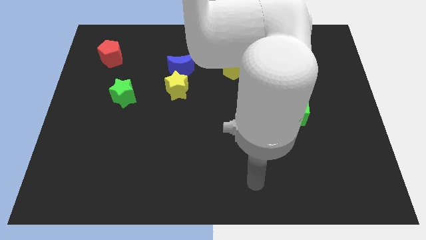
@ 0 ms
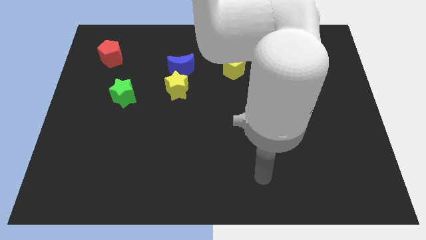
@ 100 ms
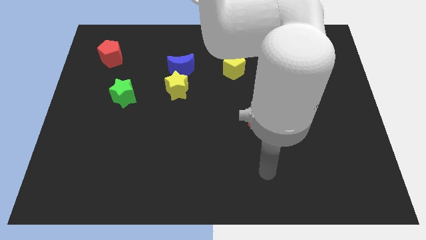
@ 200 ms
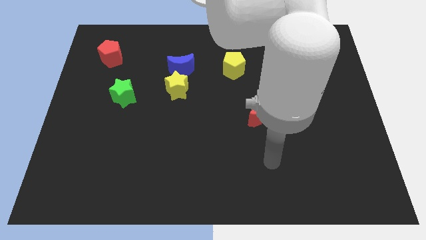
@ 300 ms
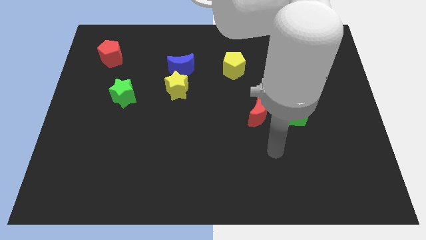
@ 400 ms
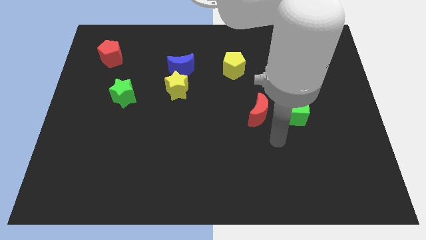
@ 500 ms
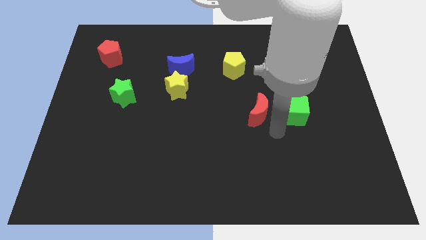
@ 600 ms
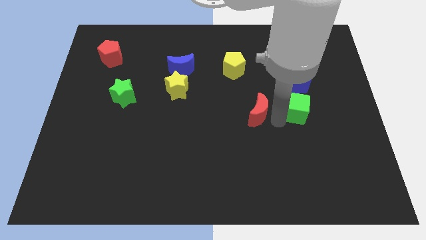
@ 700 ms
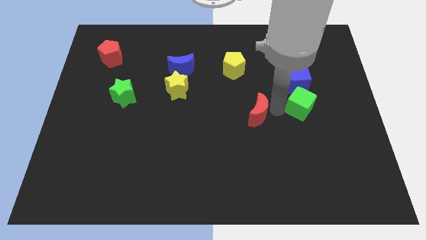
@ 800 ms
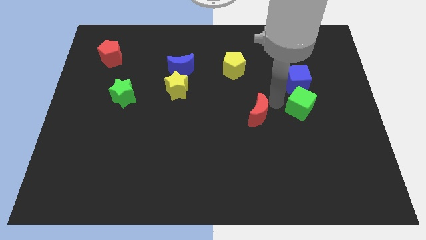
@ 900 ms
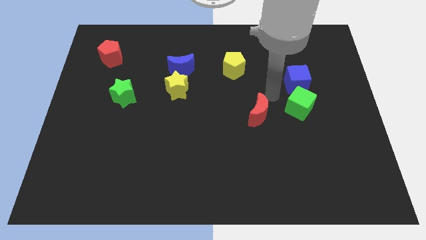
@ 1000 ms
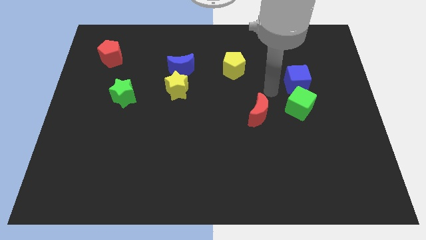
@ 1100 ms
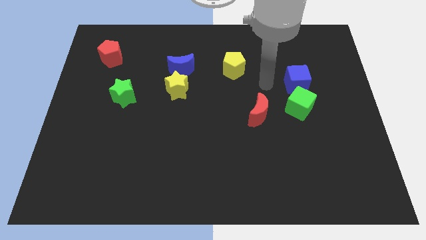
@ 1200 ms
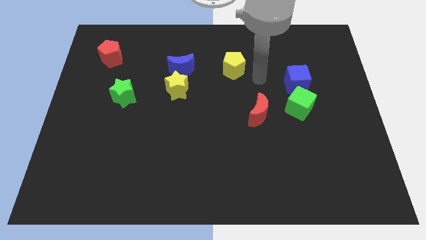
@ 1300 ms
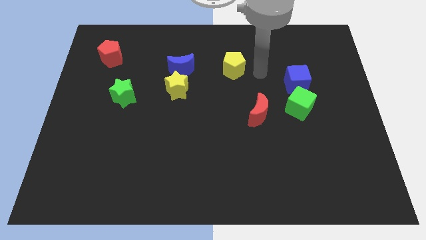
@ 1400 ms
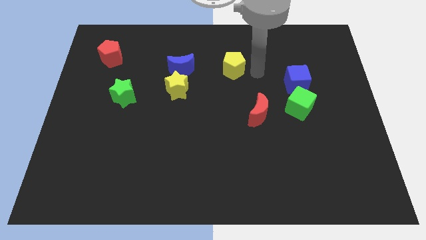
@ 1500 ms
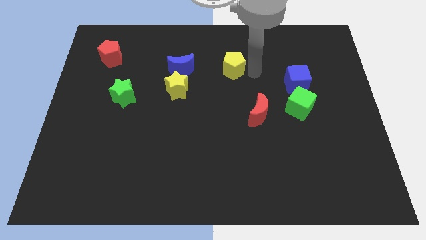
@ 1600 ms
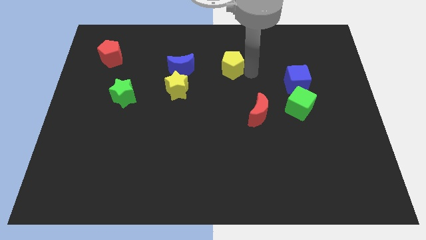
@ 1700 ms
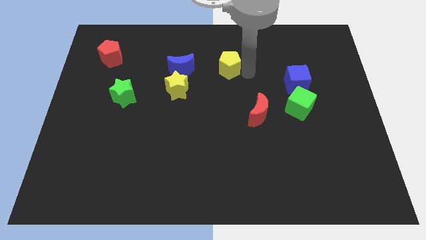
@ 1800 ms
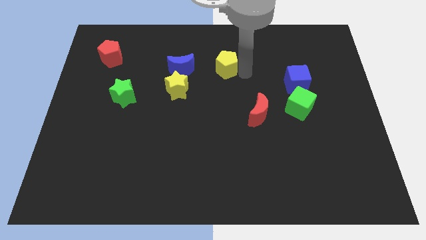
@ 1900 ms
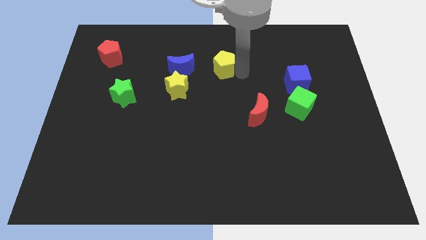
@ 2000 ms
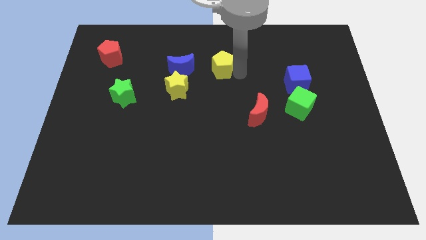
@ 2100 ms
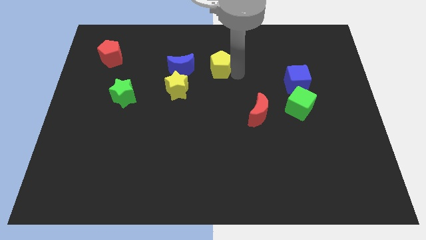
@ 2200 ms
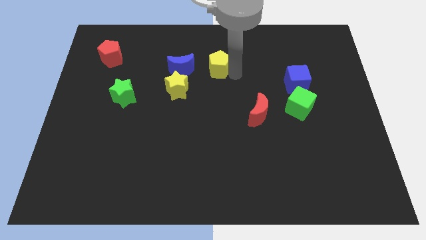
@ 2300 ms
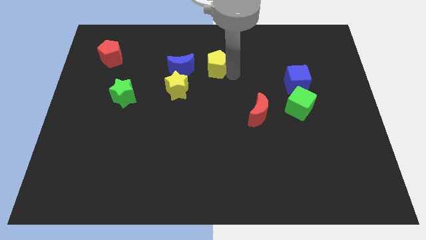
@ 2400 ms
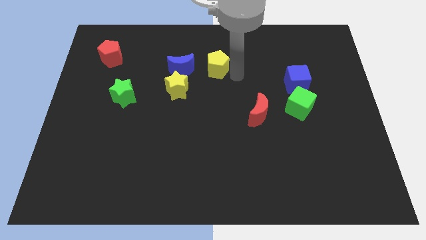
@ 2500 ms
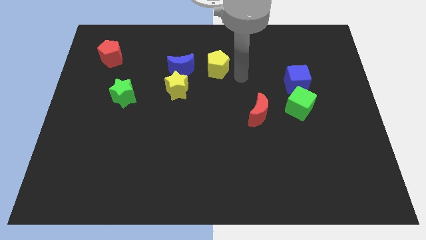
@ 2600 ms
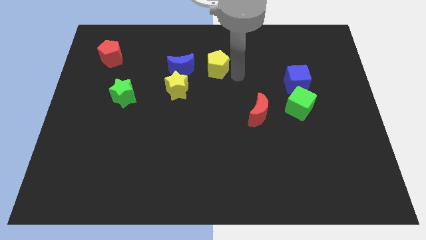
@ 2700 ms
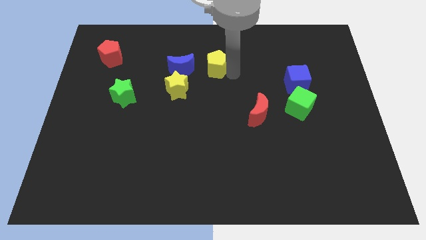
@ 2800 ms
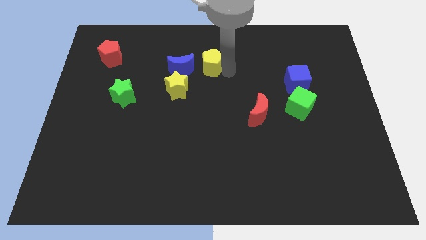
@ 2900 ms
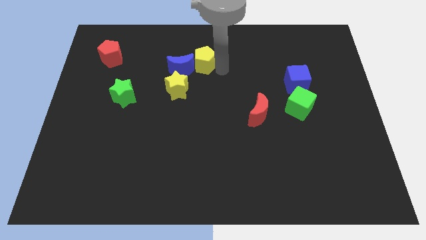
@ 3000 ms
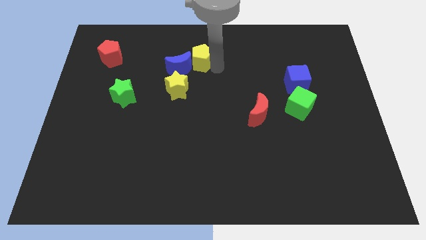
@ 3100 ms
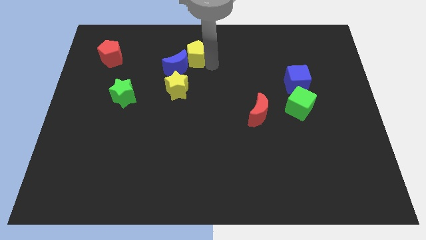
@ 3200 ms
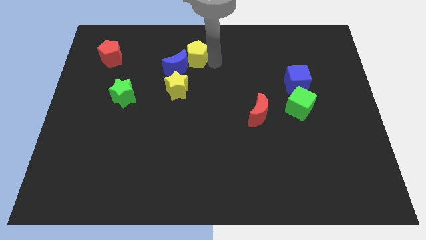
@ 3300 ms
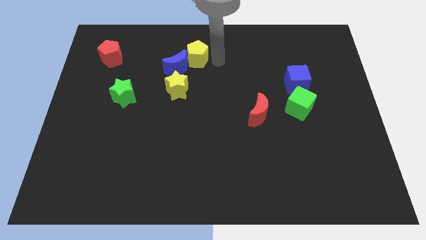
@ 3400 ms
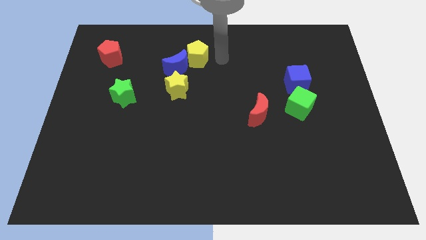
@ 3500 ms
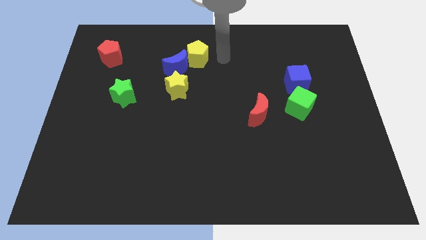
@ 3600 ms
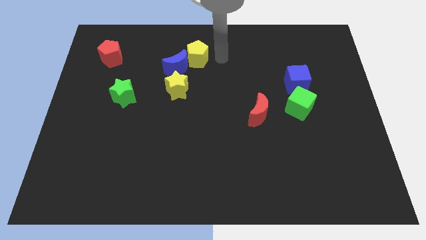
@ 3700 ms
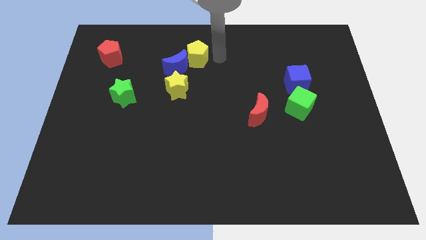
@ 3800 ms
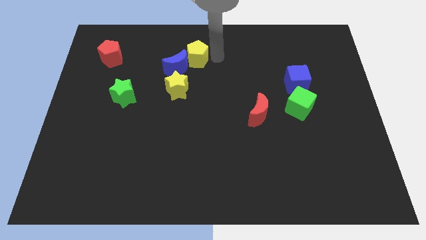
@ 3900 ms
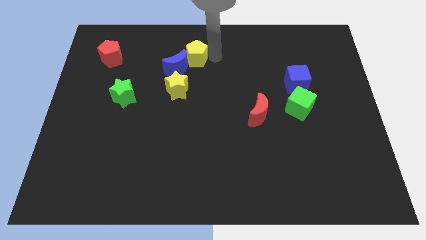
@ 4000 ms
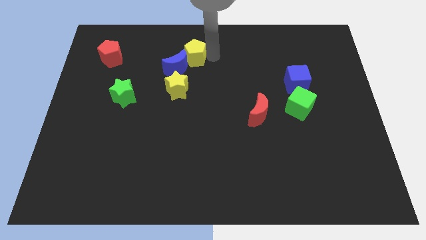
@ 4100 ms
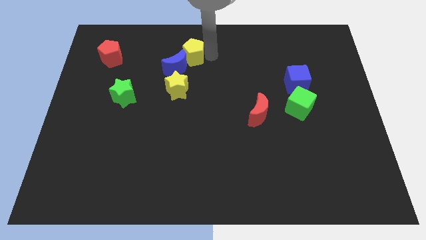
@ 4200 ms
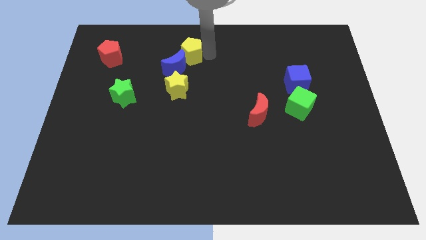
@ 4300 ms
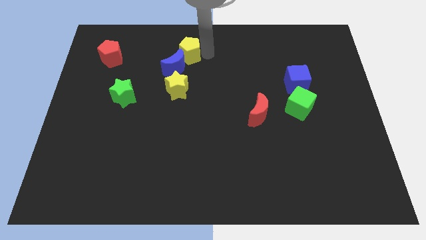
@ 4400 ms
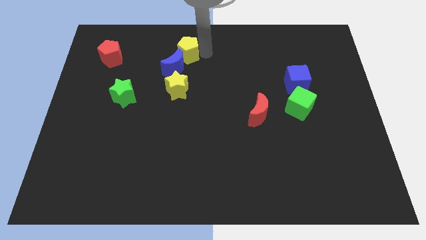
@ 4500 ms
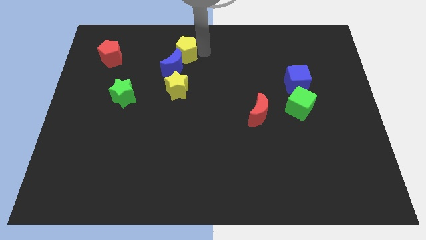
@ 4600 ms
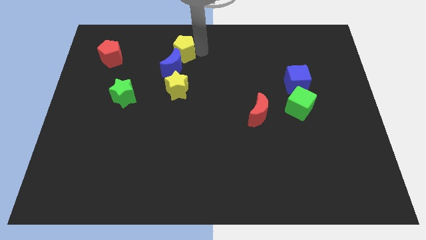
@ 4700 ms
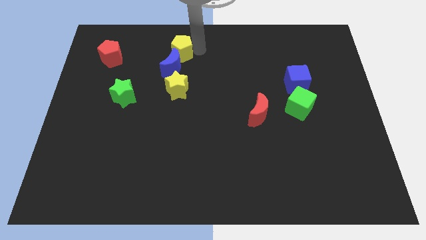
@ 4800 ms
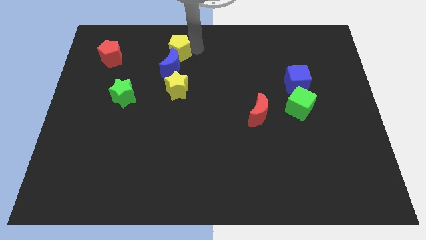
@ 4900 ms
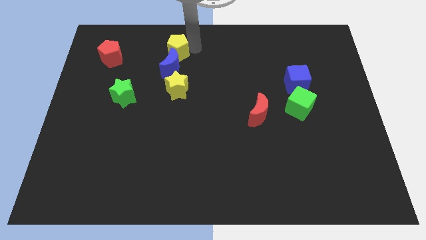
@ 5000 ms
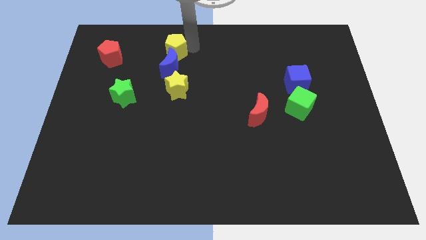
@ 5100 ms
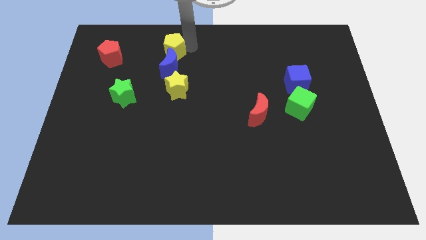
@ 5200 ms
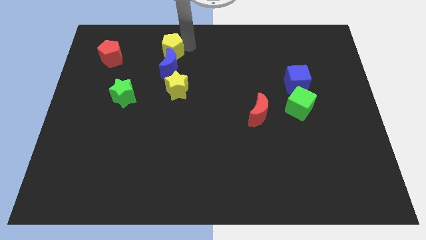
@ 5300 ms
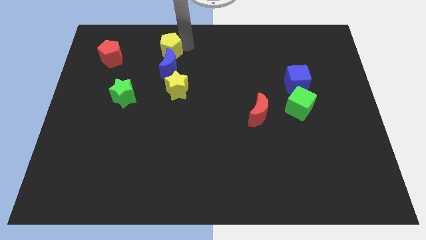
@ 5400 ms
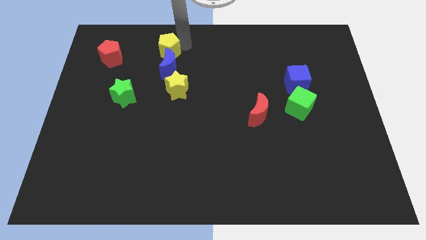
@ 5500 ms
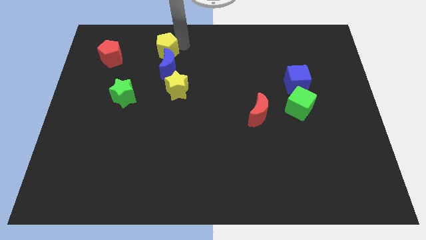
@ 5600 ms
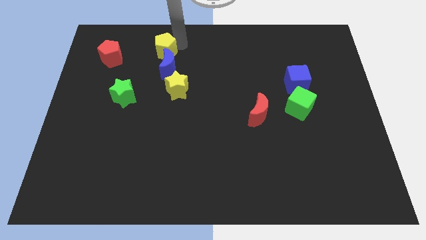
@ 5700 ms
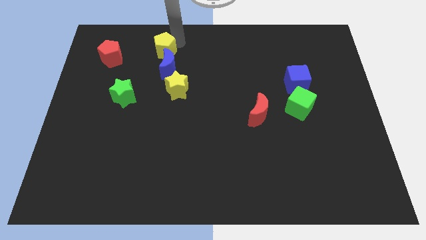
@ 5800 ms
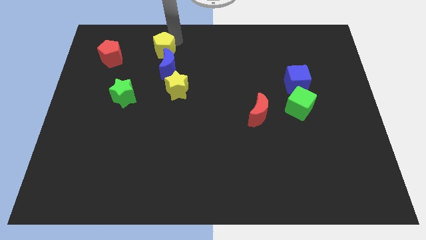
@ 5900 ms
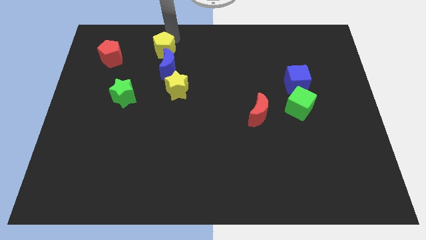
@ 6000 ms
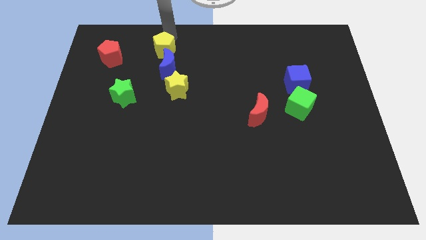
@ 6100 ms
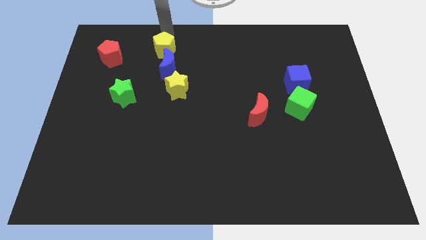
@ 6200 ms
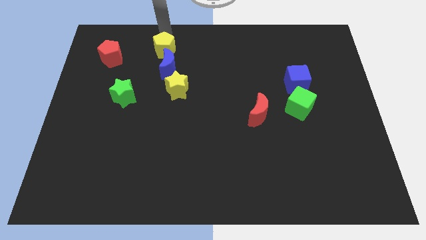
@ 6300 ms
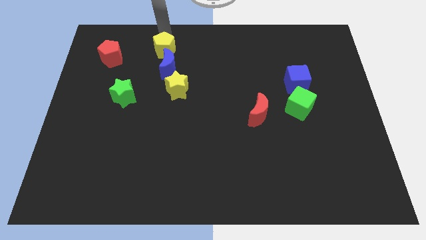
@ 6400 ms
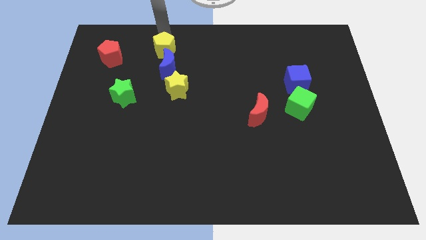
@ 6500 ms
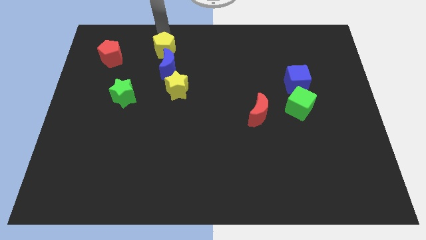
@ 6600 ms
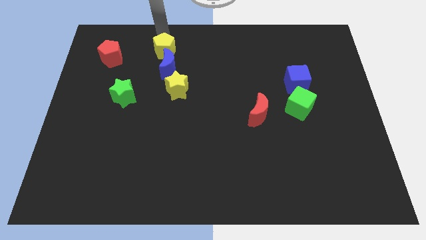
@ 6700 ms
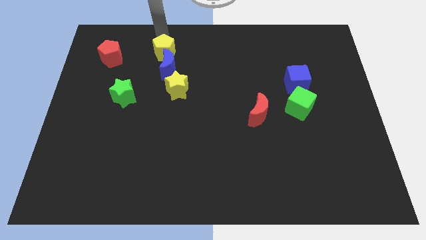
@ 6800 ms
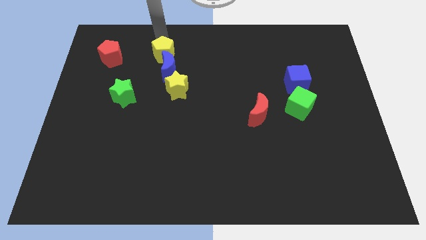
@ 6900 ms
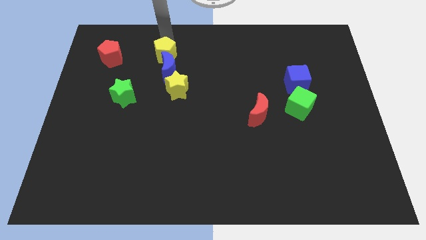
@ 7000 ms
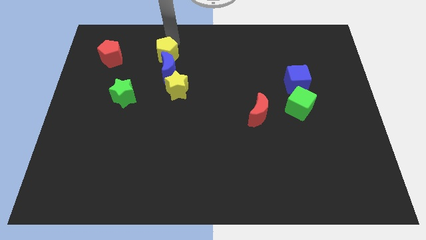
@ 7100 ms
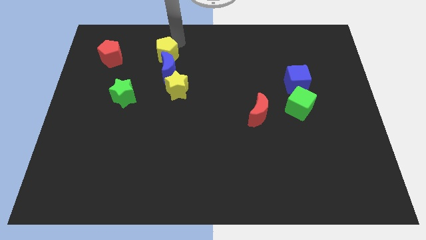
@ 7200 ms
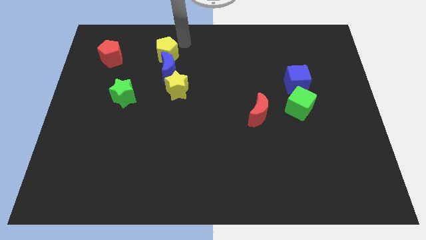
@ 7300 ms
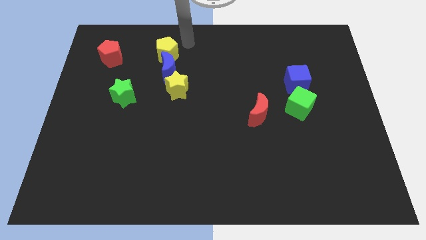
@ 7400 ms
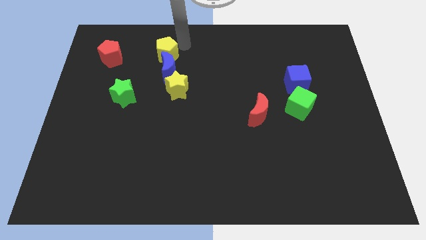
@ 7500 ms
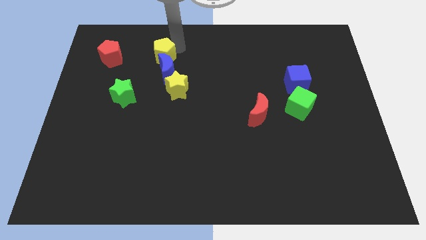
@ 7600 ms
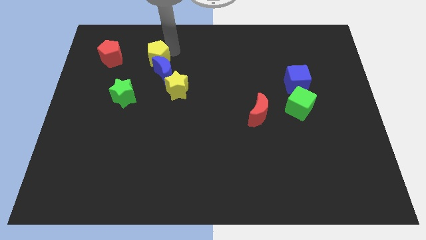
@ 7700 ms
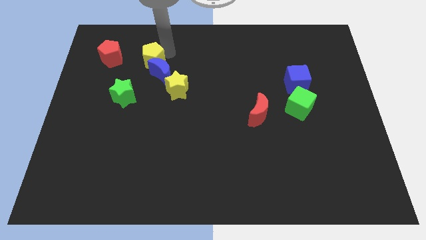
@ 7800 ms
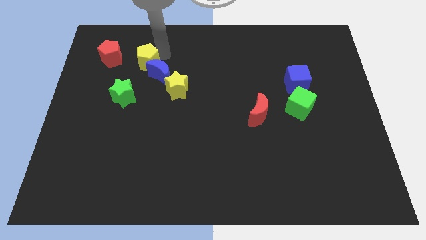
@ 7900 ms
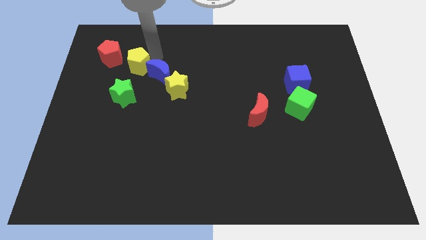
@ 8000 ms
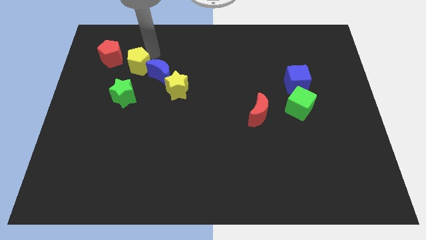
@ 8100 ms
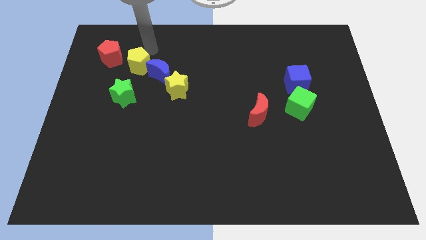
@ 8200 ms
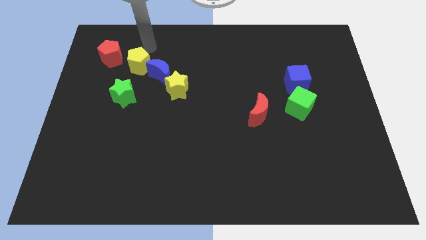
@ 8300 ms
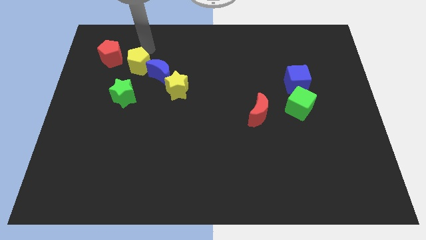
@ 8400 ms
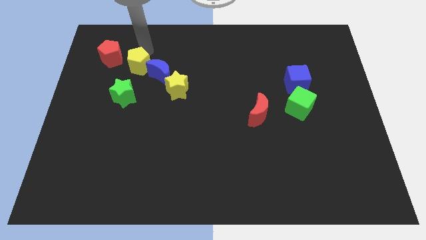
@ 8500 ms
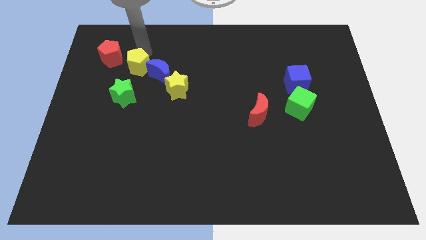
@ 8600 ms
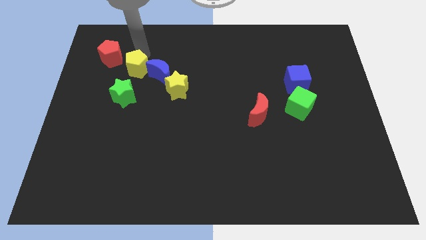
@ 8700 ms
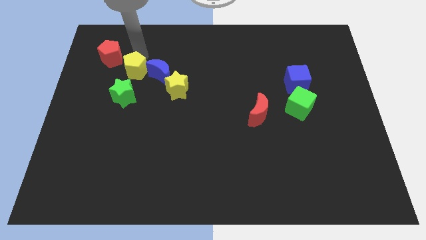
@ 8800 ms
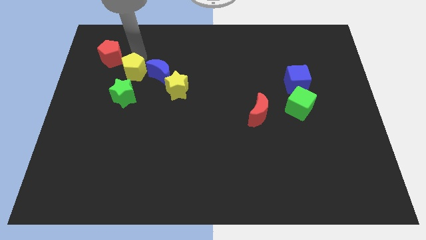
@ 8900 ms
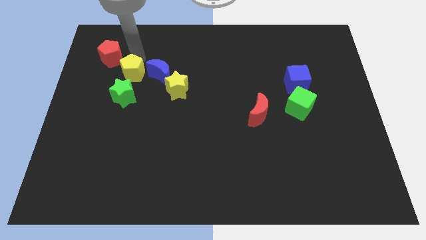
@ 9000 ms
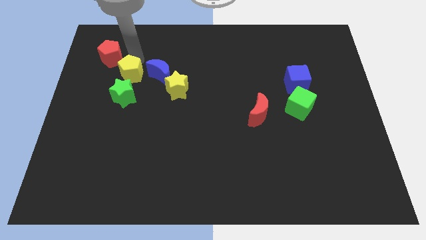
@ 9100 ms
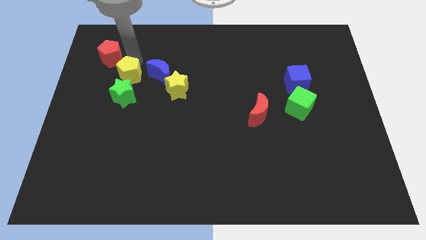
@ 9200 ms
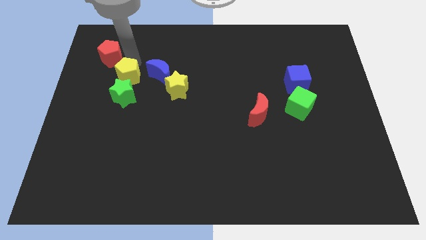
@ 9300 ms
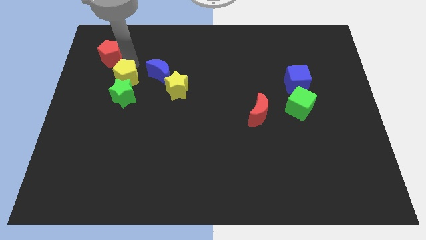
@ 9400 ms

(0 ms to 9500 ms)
slide the yellow pentagon next to the green star
